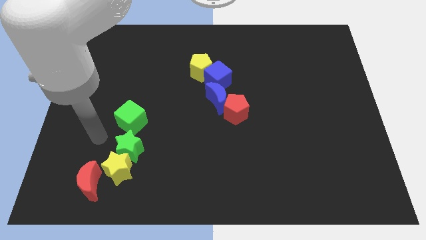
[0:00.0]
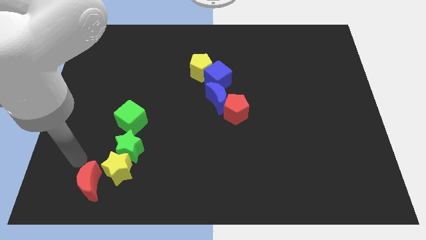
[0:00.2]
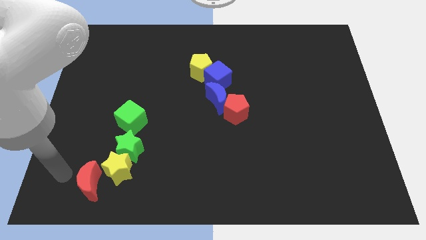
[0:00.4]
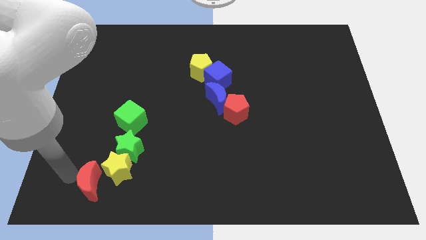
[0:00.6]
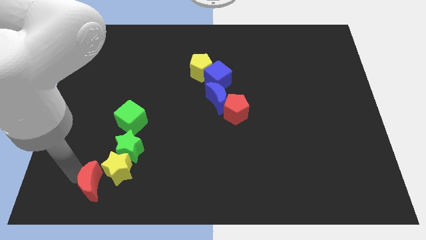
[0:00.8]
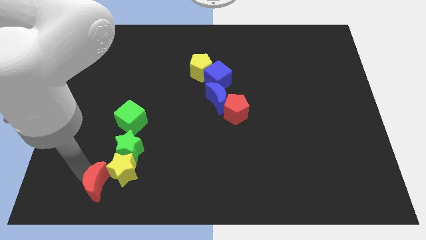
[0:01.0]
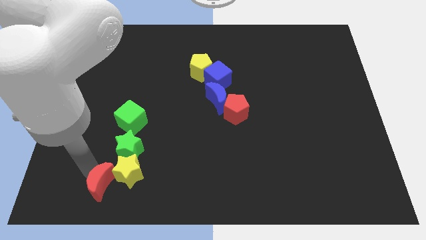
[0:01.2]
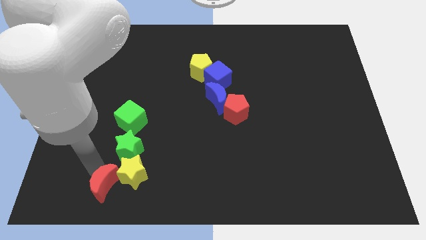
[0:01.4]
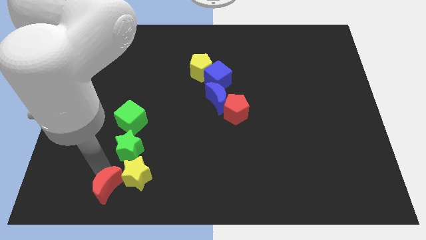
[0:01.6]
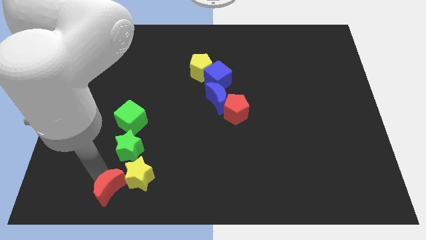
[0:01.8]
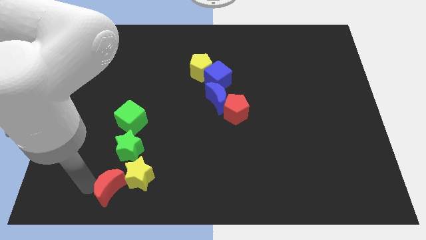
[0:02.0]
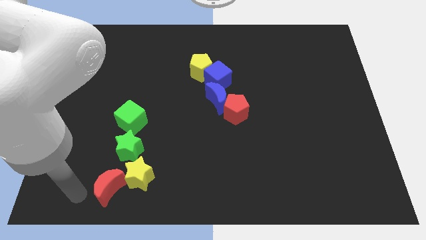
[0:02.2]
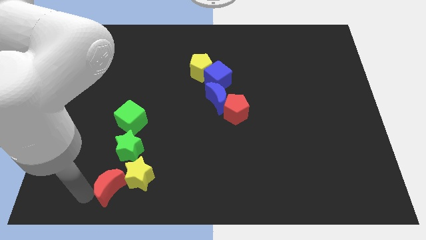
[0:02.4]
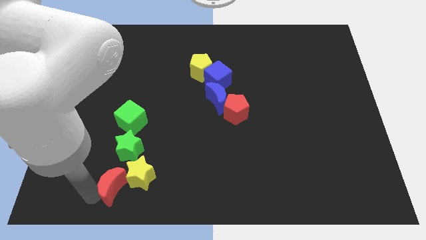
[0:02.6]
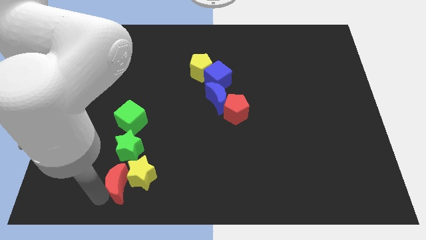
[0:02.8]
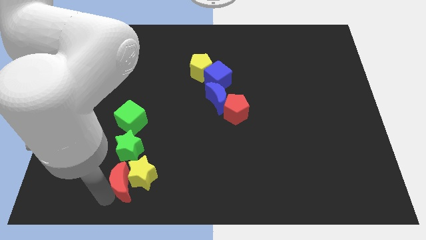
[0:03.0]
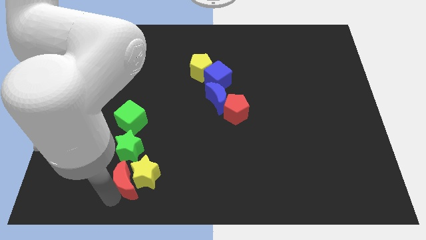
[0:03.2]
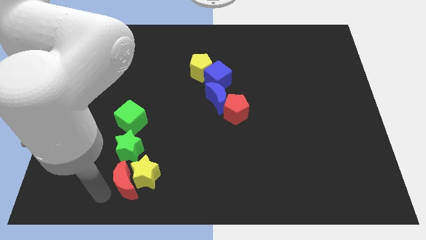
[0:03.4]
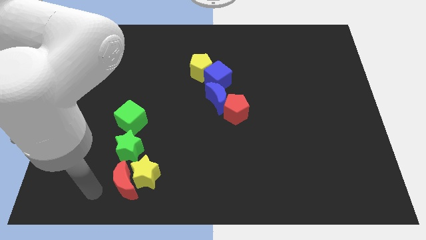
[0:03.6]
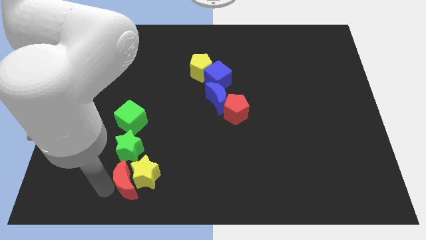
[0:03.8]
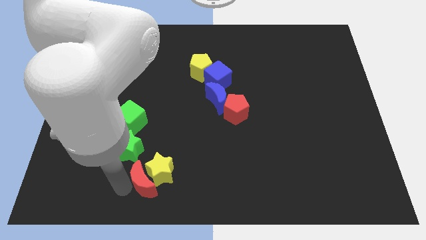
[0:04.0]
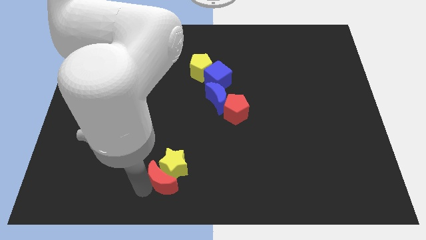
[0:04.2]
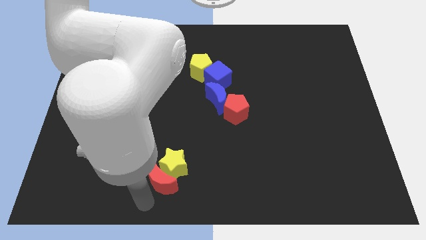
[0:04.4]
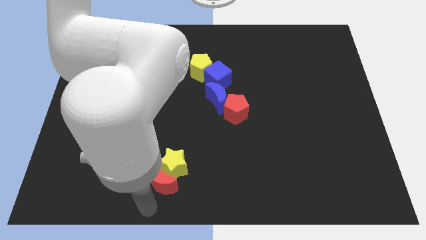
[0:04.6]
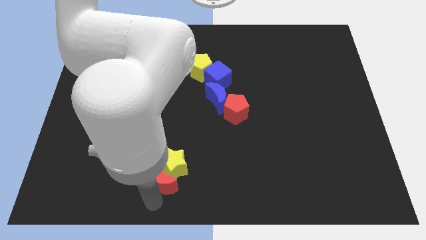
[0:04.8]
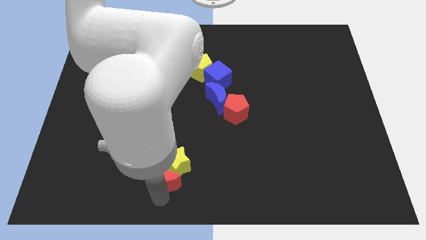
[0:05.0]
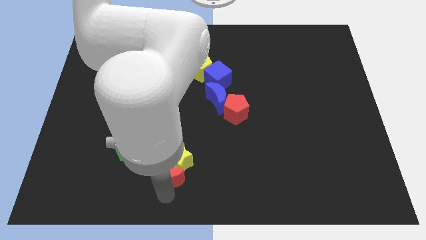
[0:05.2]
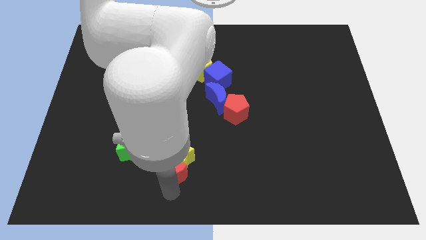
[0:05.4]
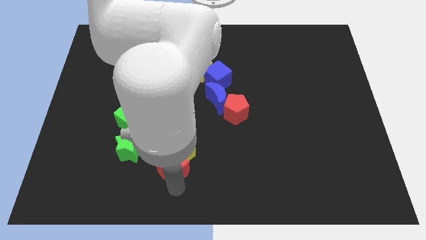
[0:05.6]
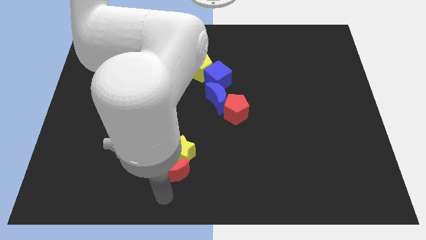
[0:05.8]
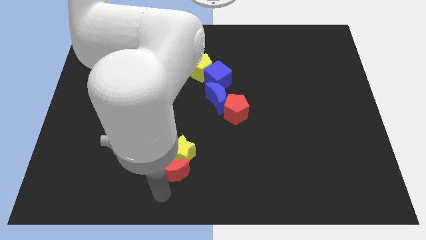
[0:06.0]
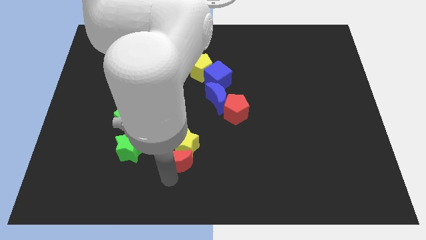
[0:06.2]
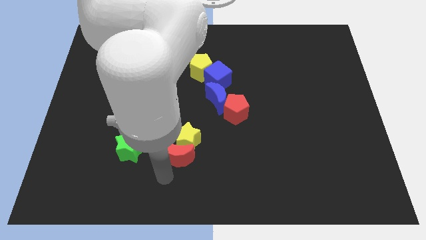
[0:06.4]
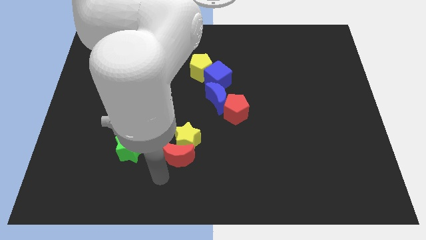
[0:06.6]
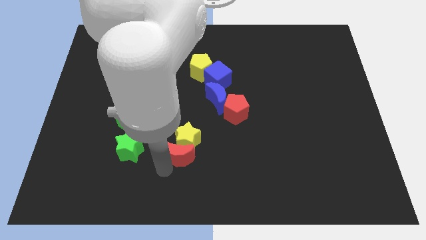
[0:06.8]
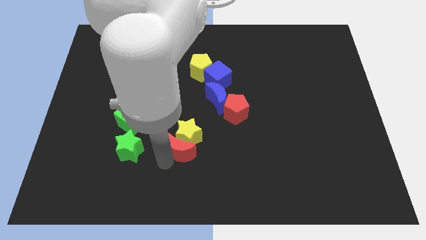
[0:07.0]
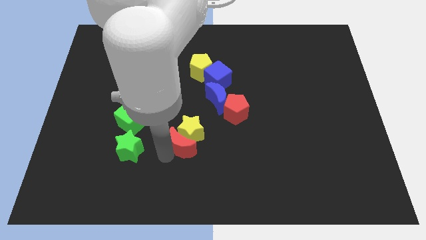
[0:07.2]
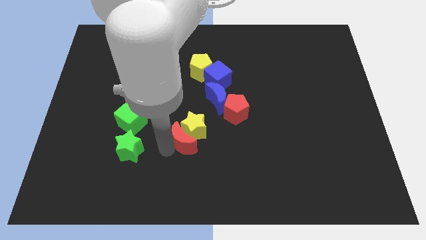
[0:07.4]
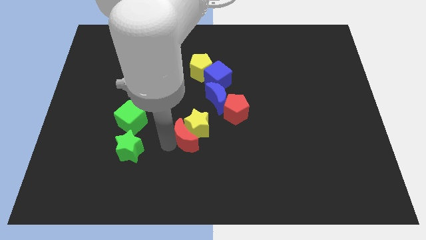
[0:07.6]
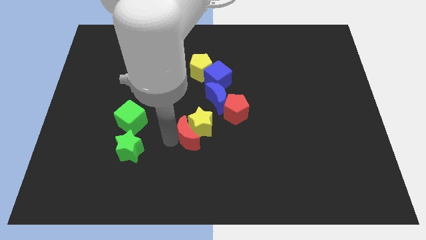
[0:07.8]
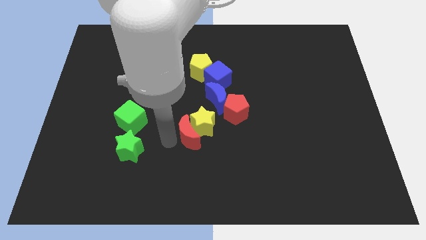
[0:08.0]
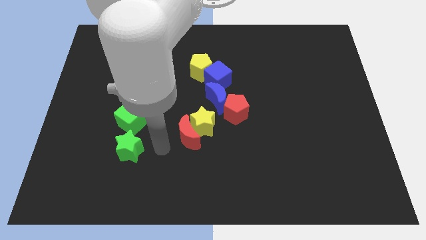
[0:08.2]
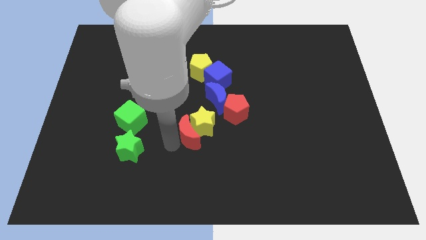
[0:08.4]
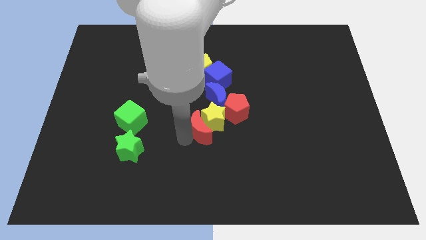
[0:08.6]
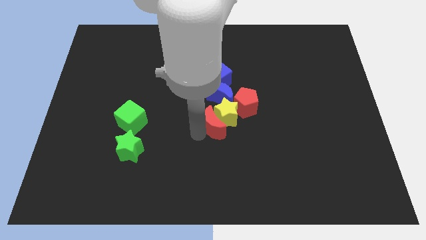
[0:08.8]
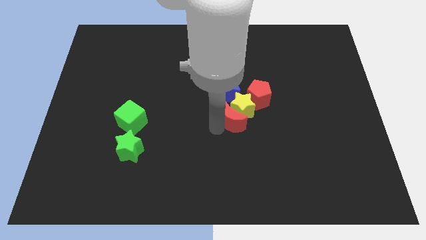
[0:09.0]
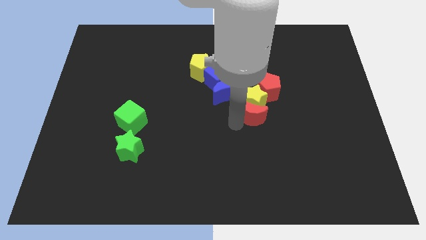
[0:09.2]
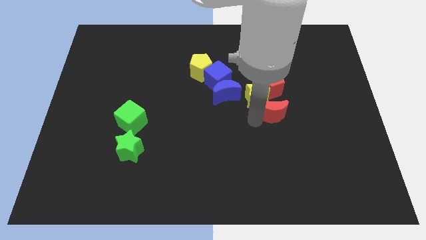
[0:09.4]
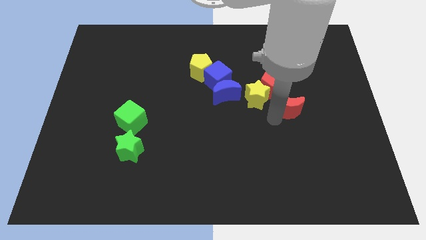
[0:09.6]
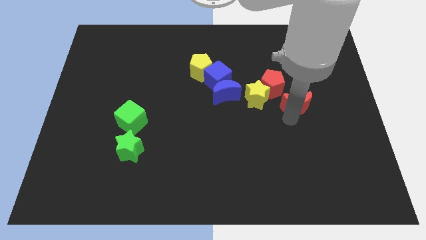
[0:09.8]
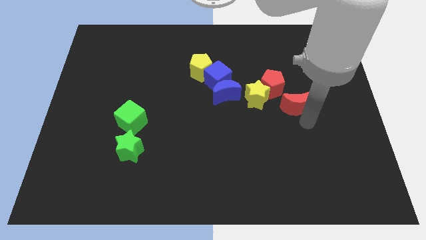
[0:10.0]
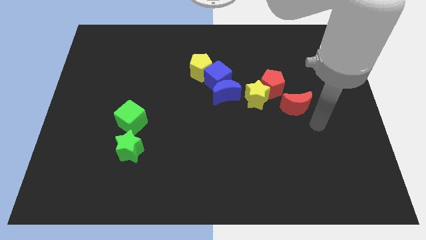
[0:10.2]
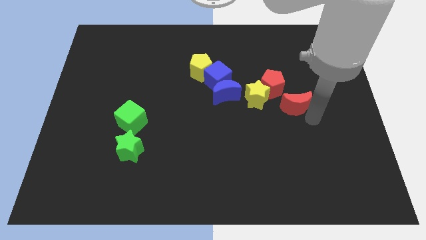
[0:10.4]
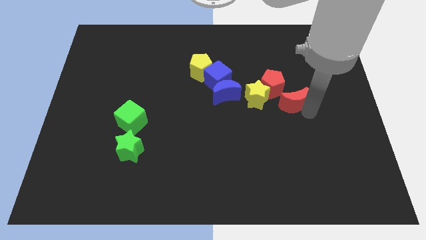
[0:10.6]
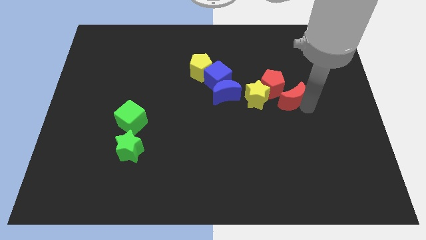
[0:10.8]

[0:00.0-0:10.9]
push the red moon close to the red pentagon
